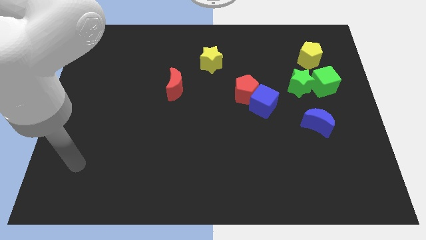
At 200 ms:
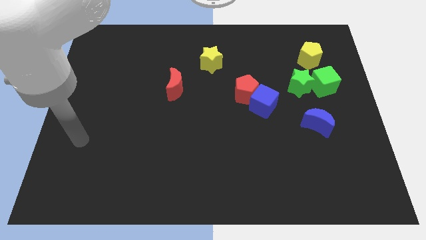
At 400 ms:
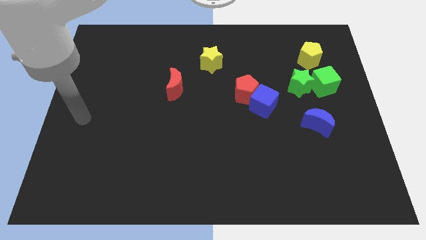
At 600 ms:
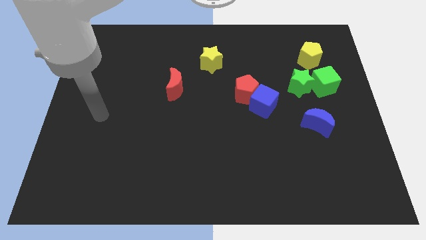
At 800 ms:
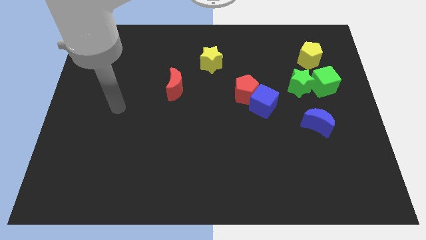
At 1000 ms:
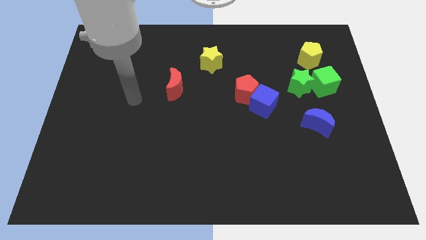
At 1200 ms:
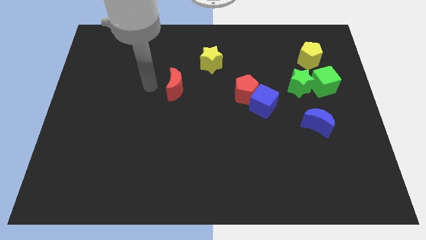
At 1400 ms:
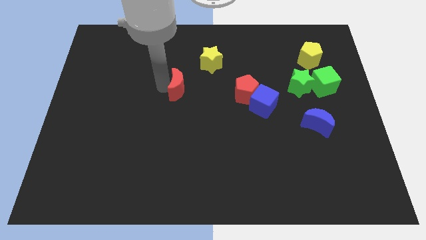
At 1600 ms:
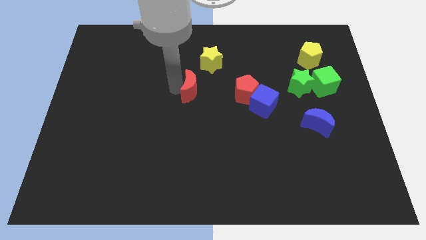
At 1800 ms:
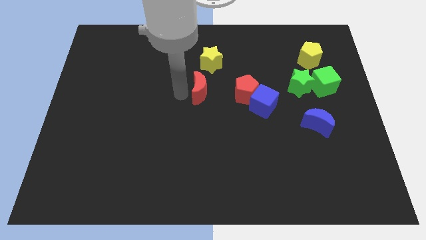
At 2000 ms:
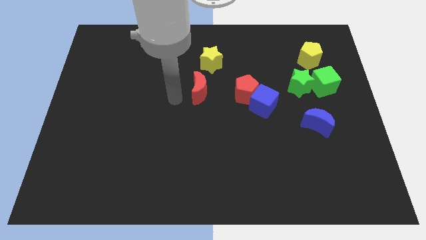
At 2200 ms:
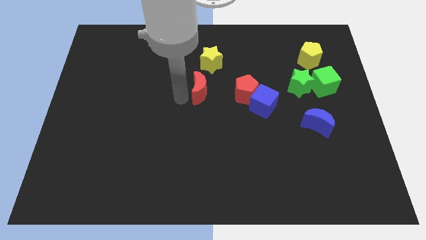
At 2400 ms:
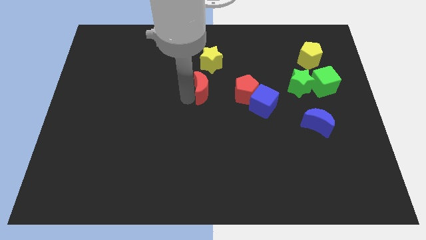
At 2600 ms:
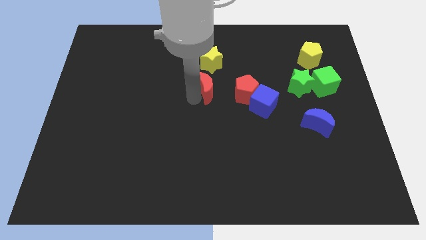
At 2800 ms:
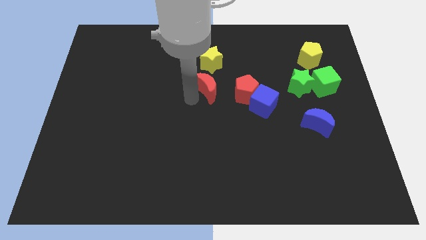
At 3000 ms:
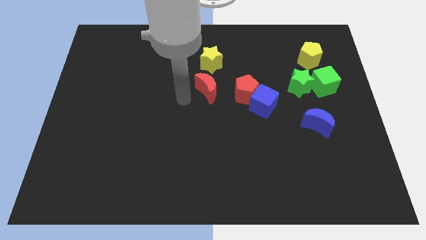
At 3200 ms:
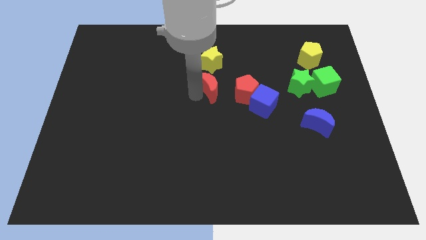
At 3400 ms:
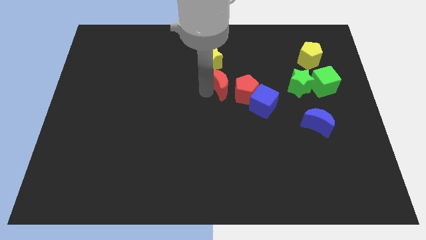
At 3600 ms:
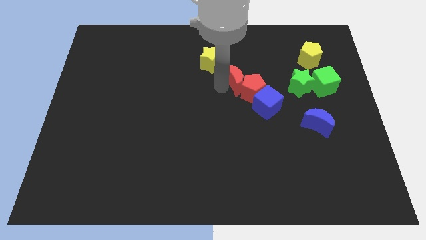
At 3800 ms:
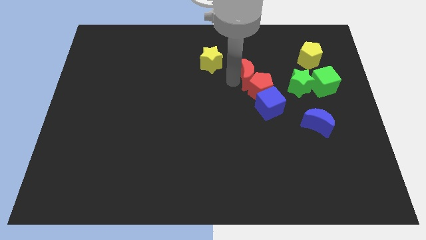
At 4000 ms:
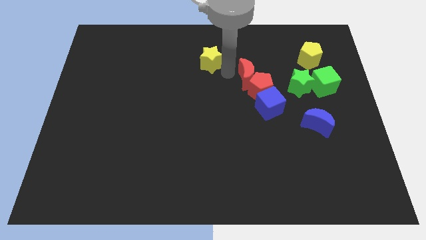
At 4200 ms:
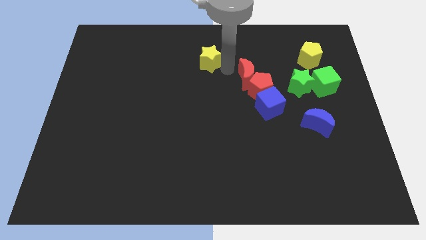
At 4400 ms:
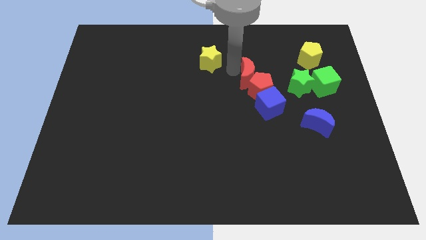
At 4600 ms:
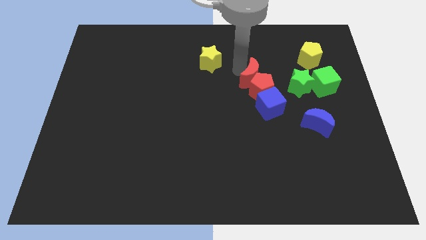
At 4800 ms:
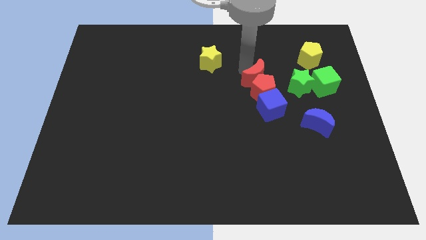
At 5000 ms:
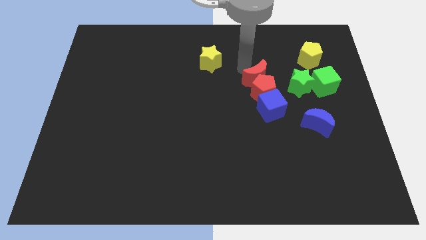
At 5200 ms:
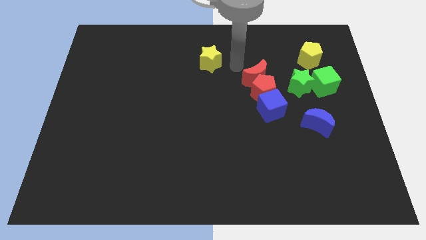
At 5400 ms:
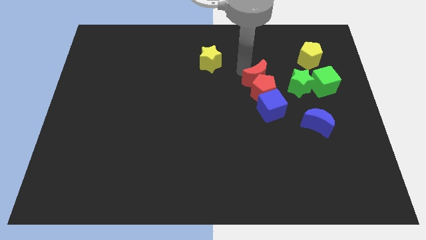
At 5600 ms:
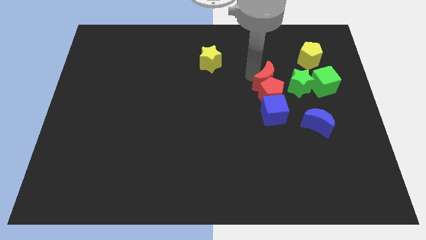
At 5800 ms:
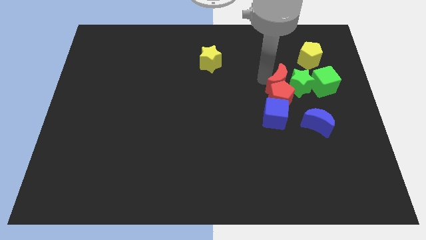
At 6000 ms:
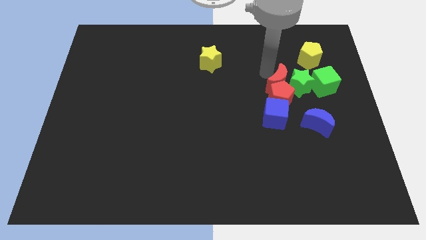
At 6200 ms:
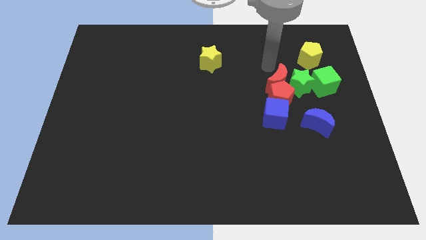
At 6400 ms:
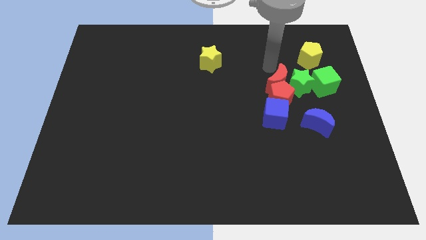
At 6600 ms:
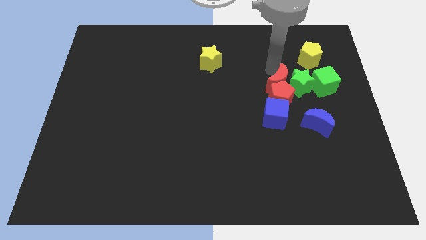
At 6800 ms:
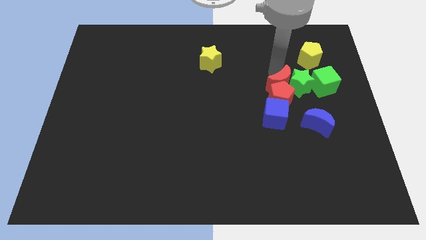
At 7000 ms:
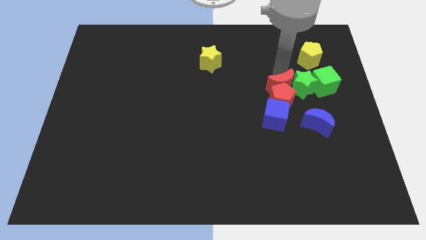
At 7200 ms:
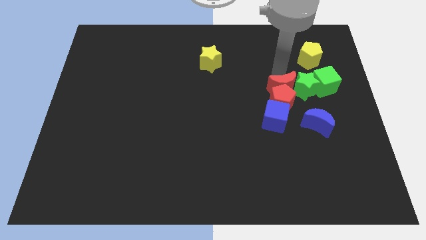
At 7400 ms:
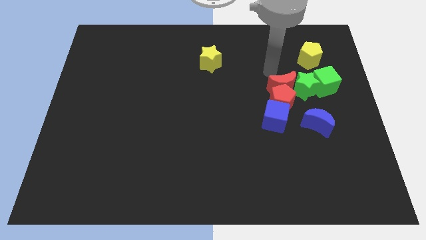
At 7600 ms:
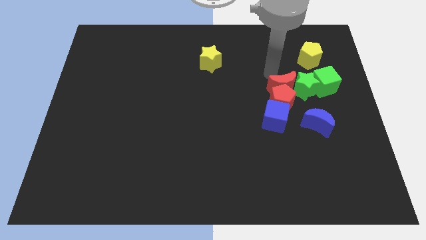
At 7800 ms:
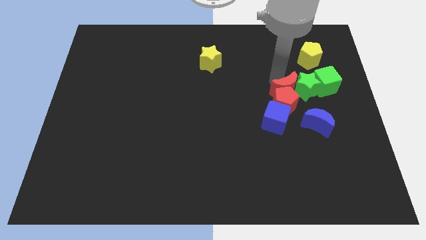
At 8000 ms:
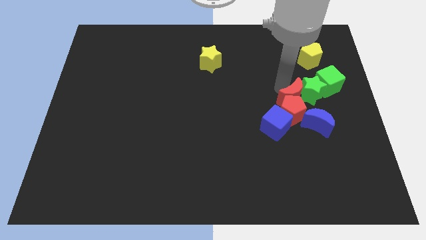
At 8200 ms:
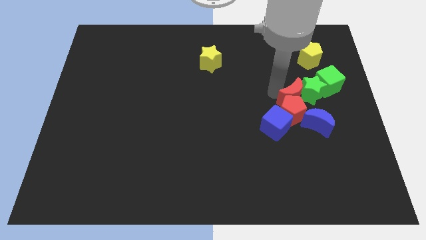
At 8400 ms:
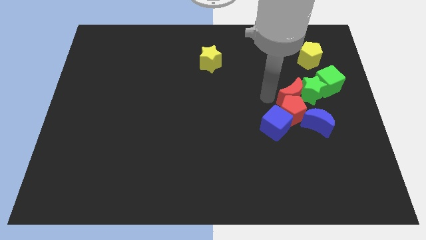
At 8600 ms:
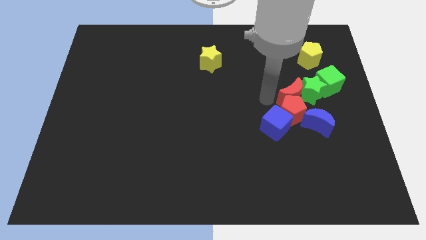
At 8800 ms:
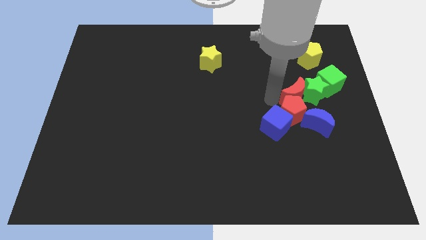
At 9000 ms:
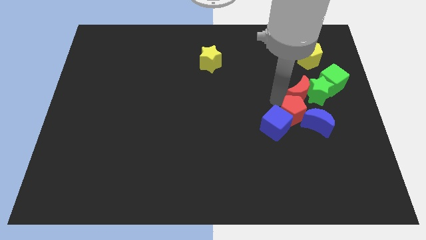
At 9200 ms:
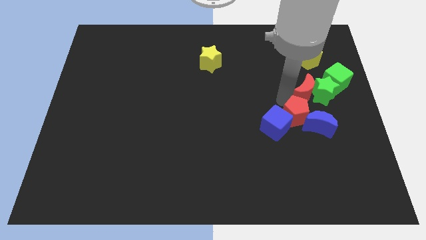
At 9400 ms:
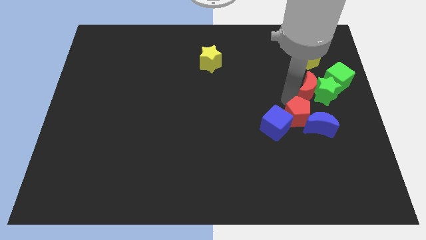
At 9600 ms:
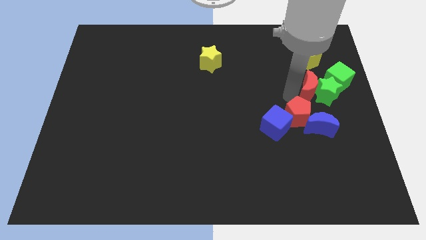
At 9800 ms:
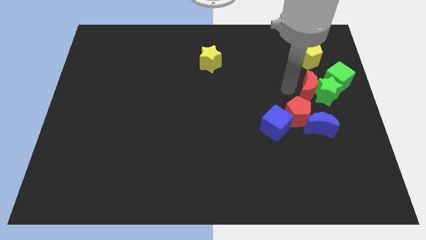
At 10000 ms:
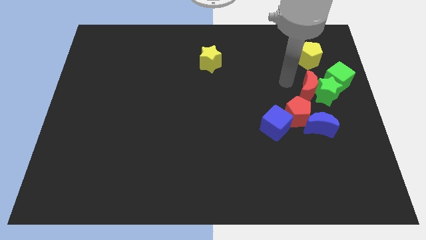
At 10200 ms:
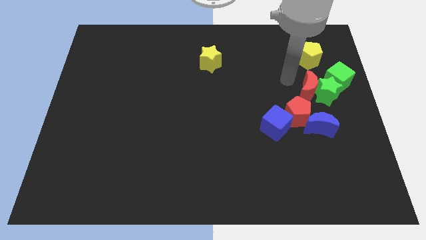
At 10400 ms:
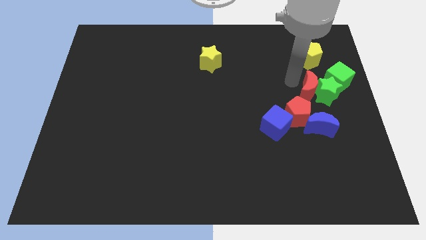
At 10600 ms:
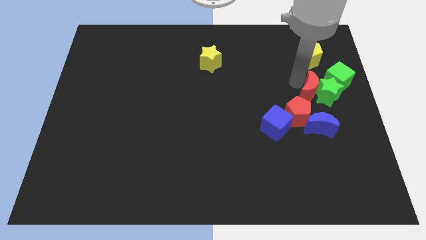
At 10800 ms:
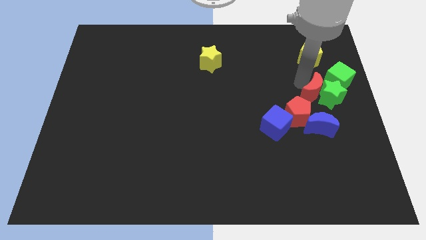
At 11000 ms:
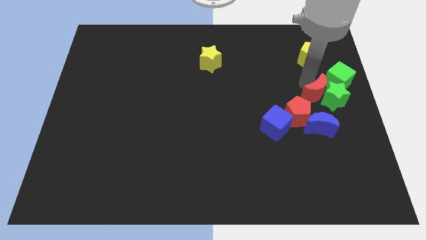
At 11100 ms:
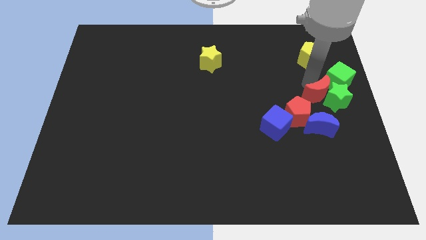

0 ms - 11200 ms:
slide the red moon to the right side of the board

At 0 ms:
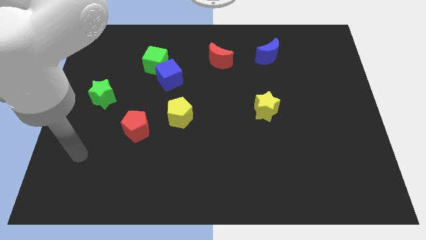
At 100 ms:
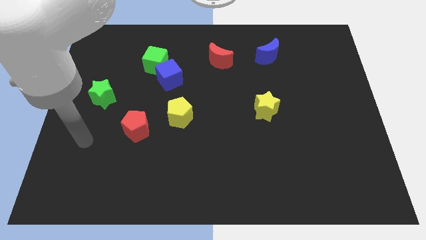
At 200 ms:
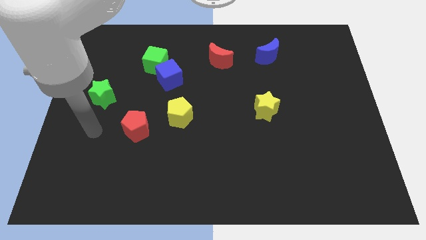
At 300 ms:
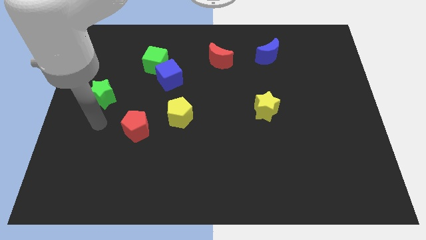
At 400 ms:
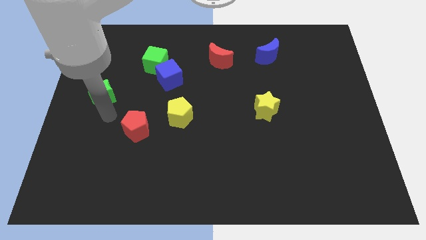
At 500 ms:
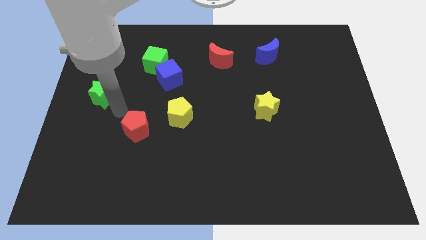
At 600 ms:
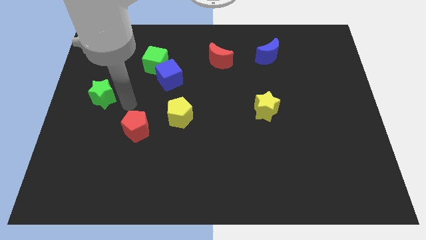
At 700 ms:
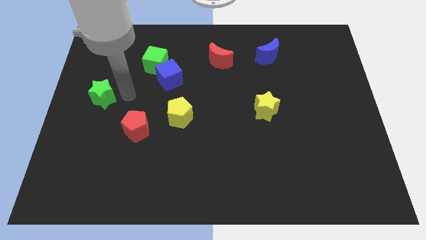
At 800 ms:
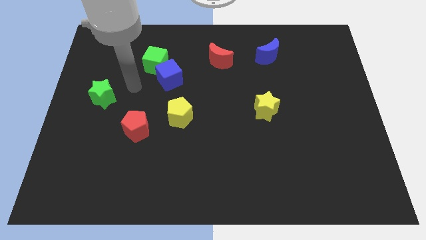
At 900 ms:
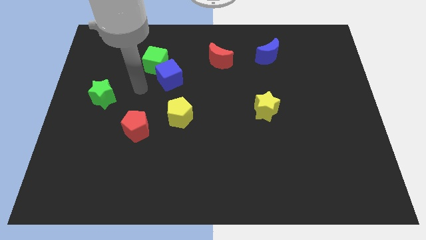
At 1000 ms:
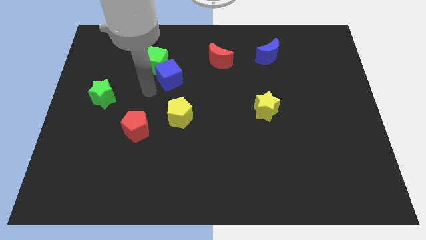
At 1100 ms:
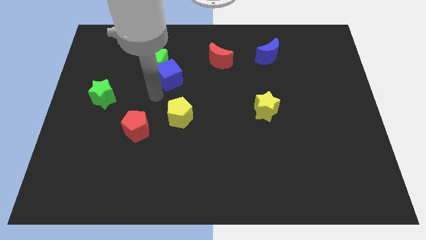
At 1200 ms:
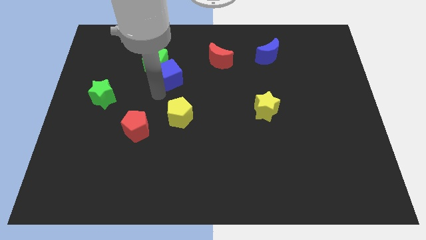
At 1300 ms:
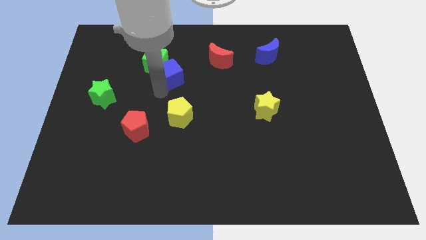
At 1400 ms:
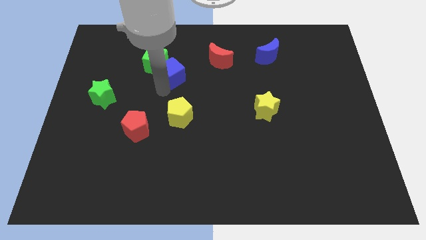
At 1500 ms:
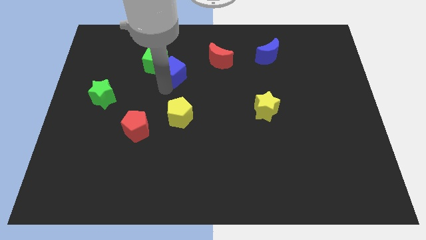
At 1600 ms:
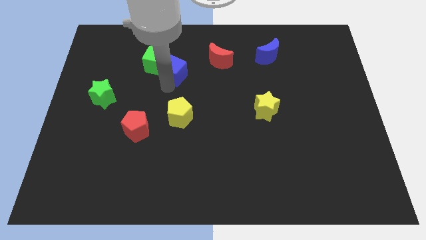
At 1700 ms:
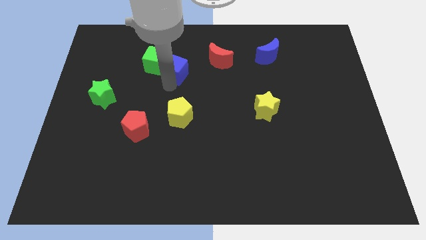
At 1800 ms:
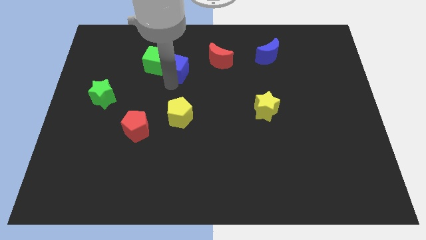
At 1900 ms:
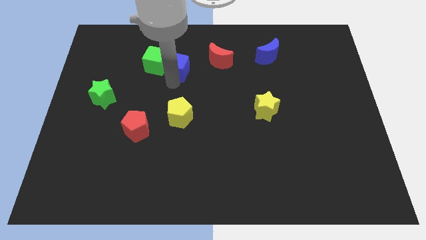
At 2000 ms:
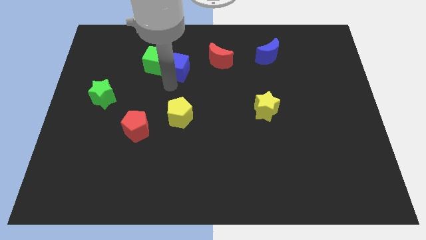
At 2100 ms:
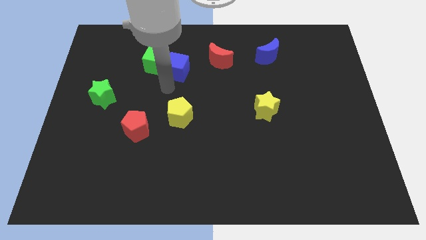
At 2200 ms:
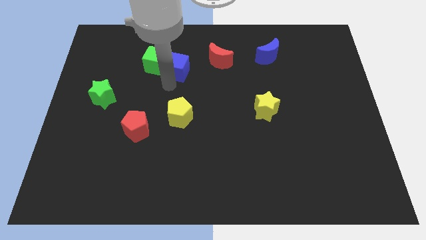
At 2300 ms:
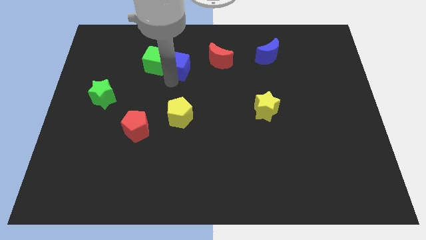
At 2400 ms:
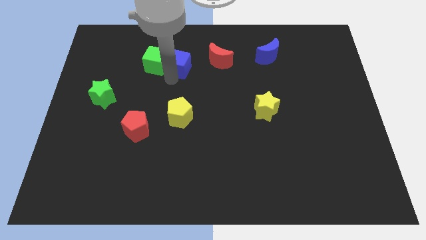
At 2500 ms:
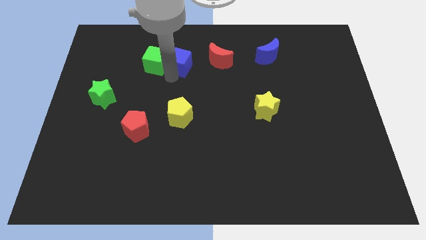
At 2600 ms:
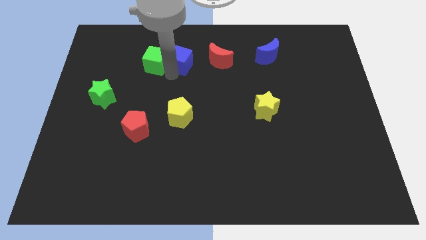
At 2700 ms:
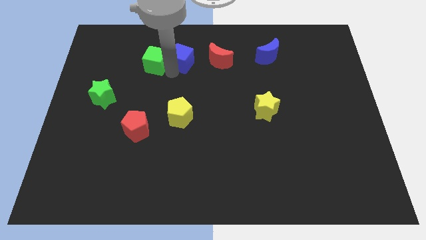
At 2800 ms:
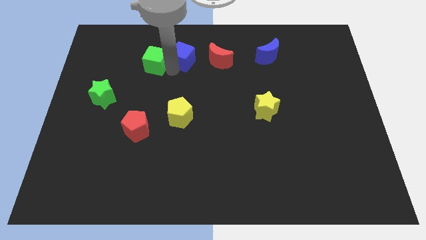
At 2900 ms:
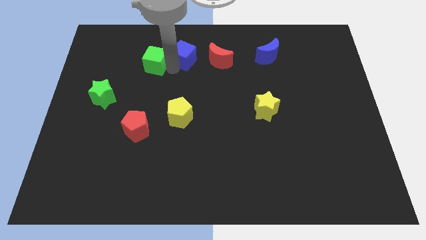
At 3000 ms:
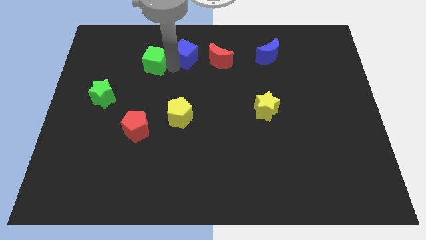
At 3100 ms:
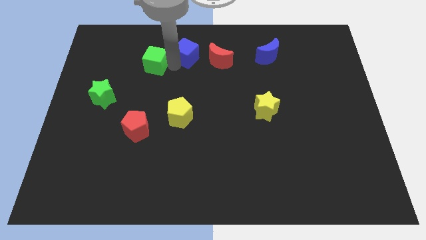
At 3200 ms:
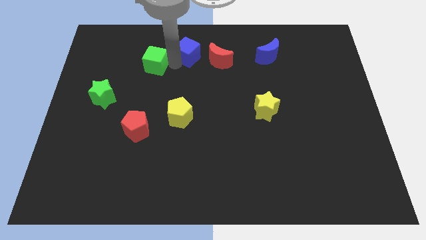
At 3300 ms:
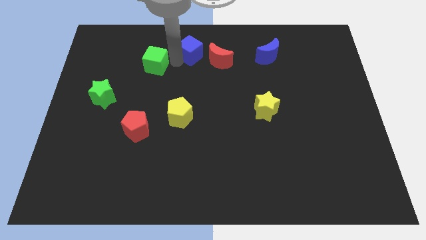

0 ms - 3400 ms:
push the blue cube to the top side
